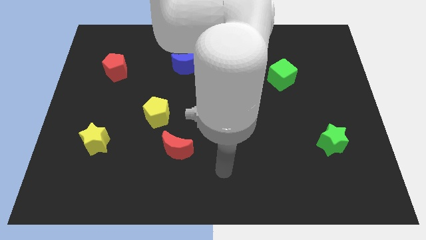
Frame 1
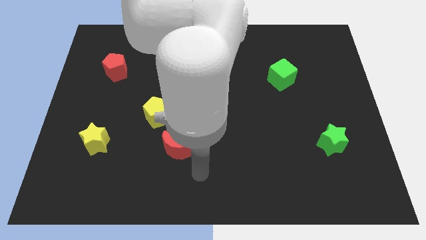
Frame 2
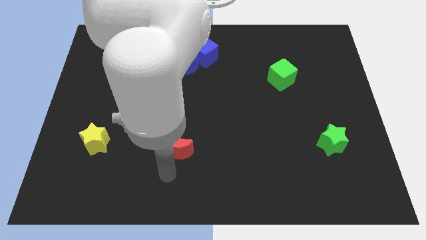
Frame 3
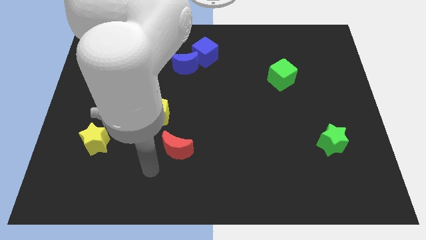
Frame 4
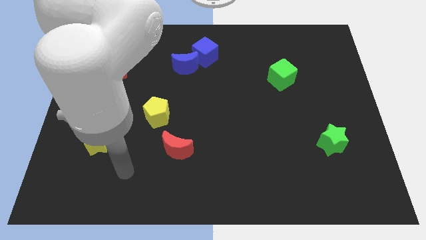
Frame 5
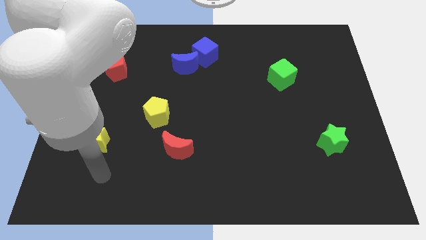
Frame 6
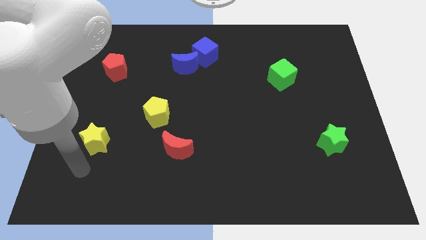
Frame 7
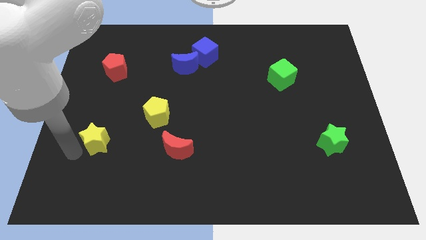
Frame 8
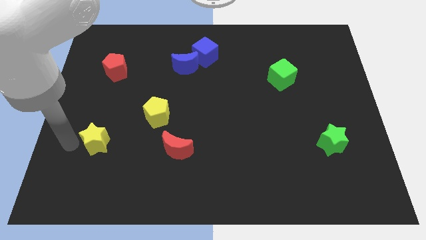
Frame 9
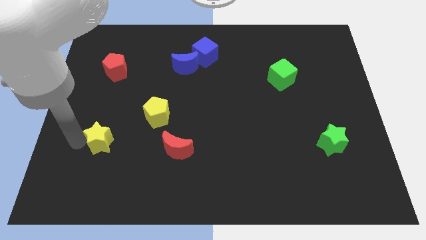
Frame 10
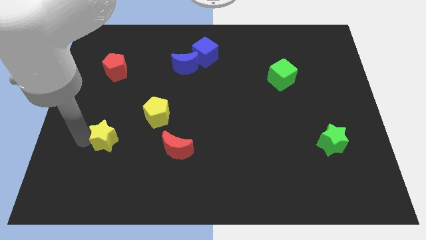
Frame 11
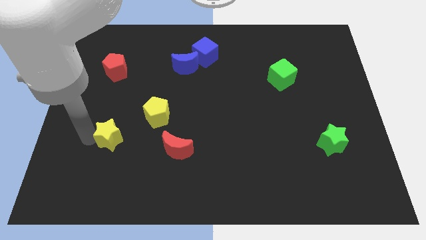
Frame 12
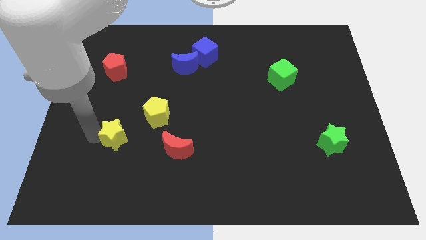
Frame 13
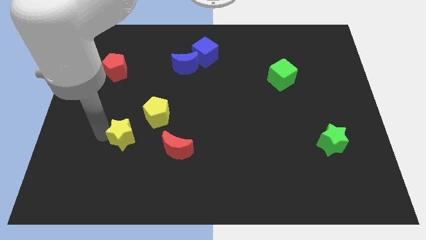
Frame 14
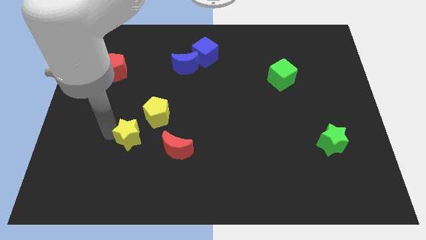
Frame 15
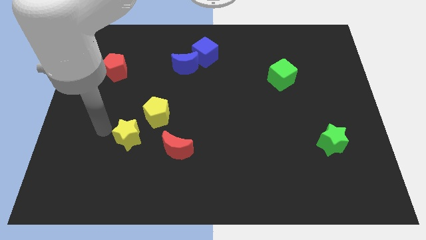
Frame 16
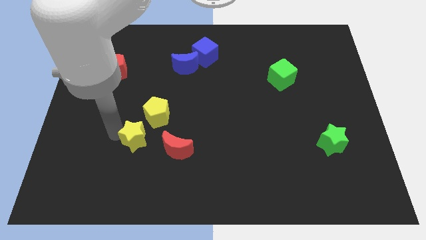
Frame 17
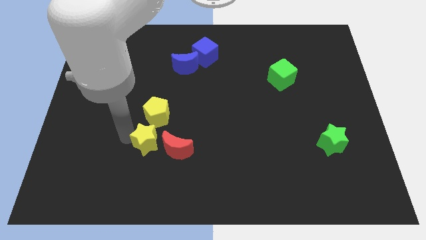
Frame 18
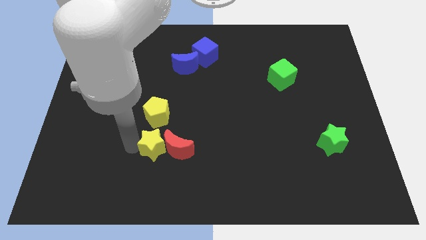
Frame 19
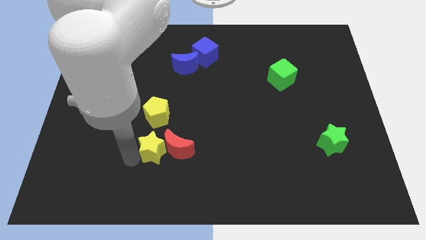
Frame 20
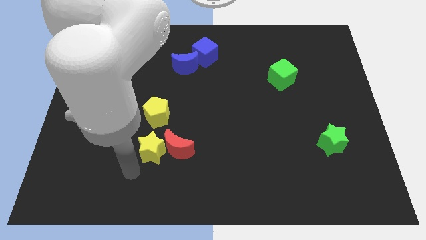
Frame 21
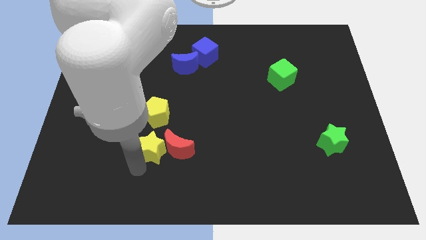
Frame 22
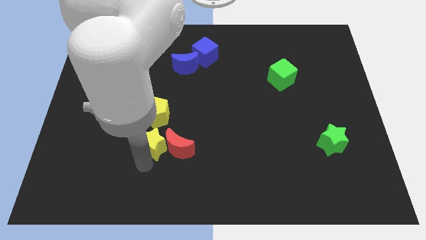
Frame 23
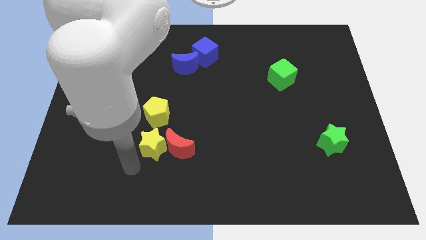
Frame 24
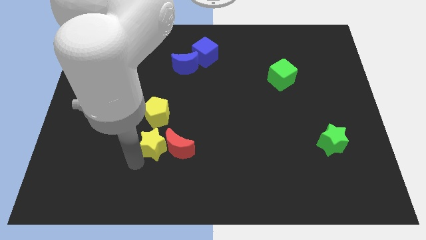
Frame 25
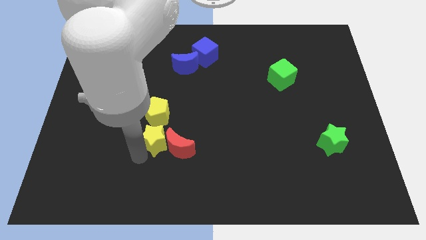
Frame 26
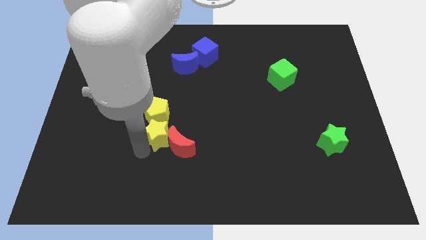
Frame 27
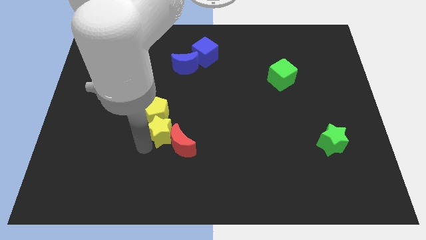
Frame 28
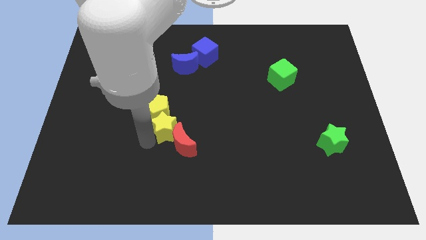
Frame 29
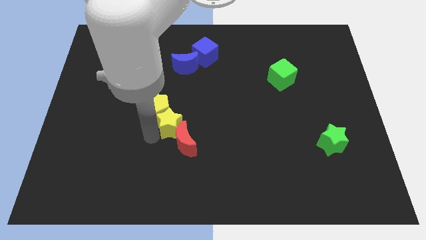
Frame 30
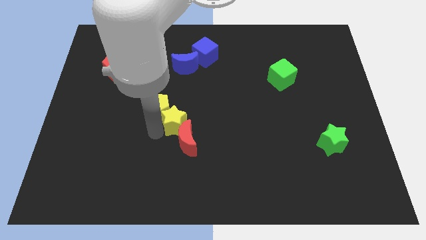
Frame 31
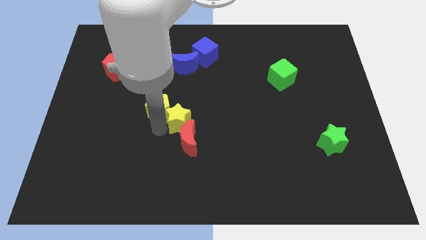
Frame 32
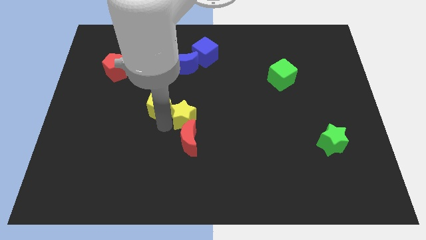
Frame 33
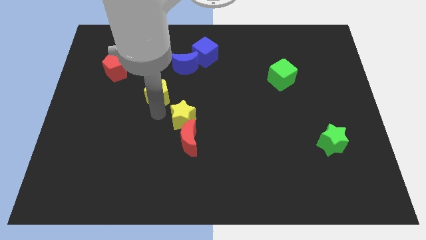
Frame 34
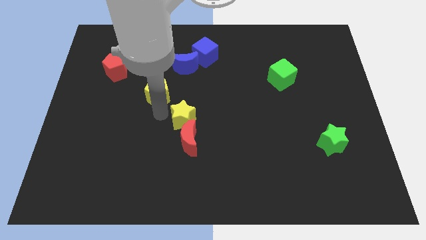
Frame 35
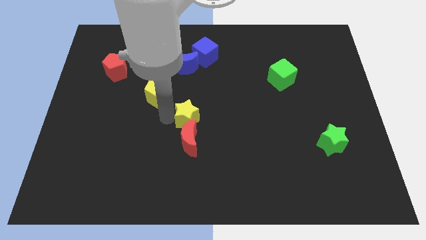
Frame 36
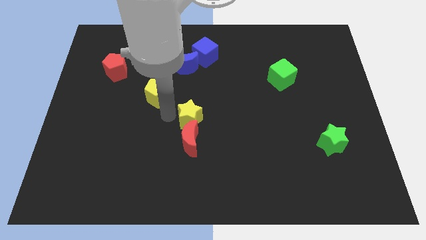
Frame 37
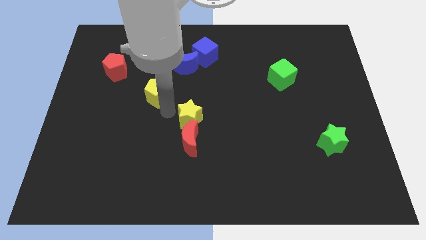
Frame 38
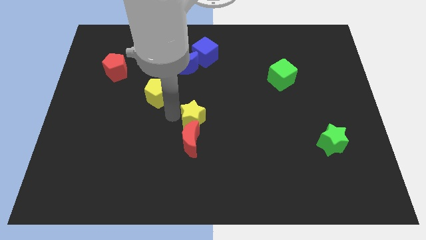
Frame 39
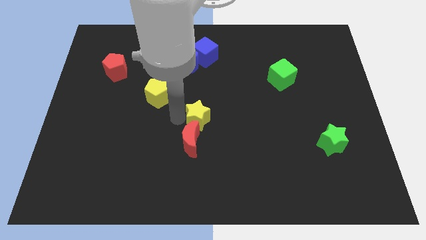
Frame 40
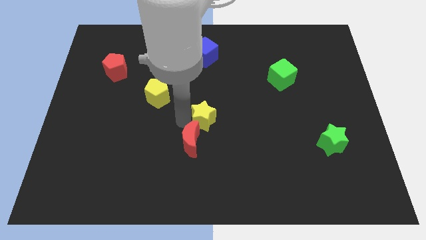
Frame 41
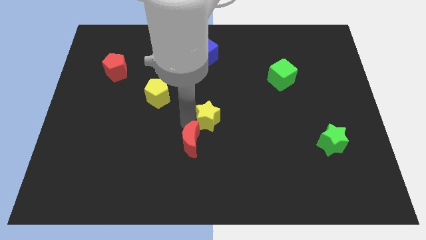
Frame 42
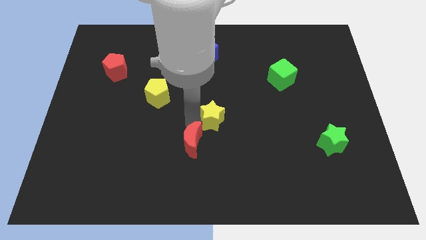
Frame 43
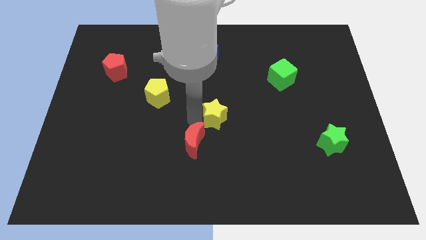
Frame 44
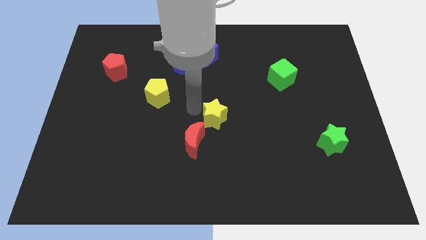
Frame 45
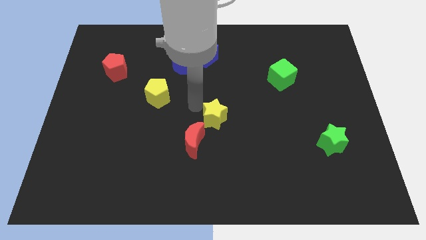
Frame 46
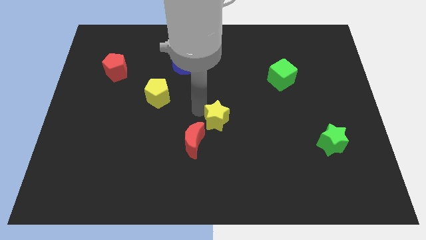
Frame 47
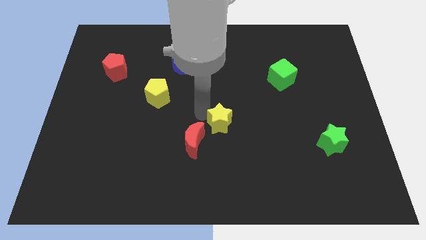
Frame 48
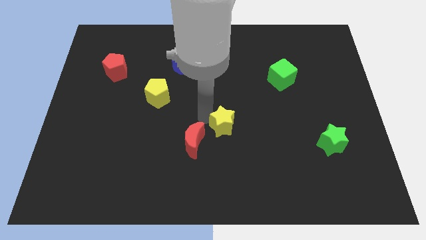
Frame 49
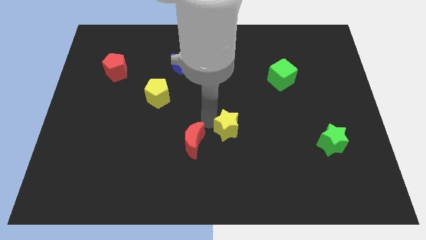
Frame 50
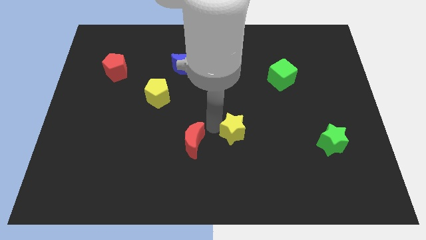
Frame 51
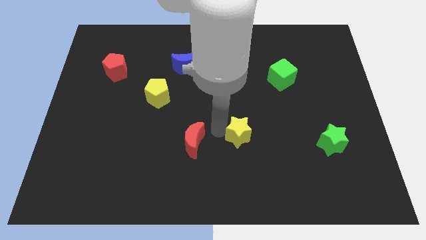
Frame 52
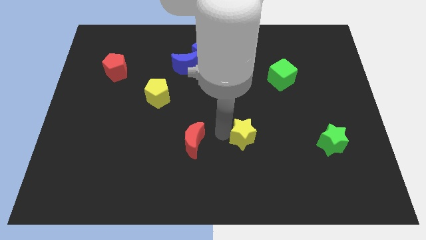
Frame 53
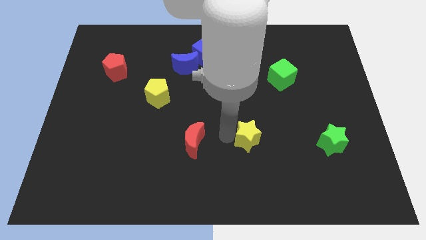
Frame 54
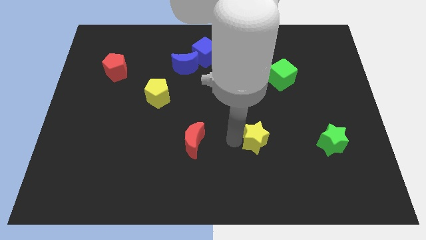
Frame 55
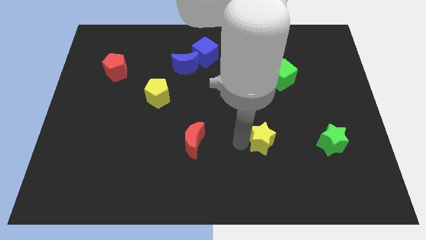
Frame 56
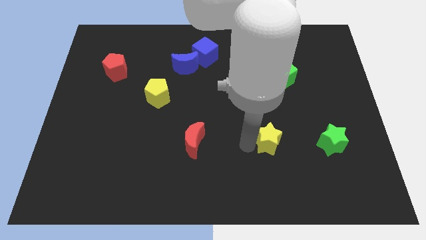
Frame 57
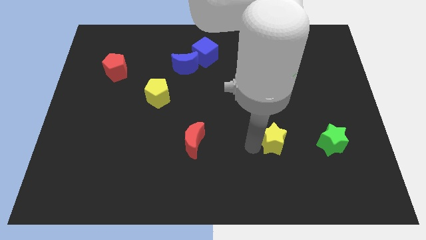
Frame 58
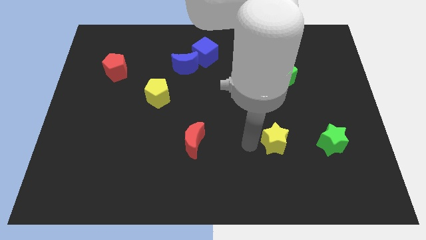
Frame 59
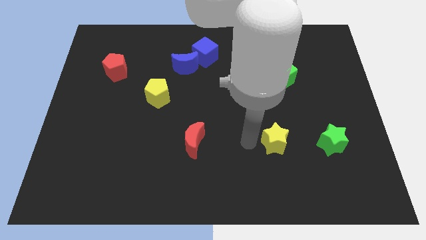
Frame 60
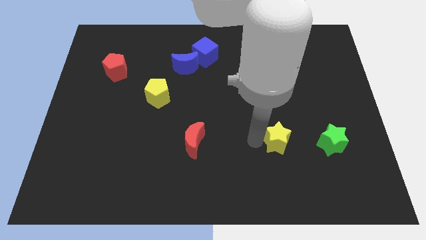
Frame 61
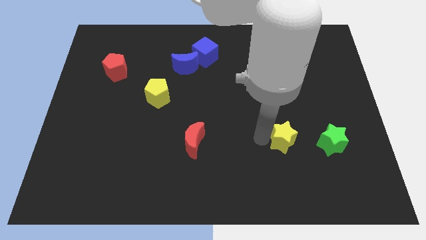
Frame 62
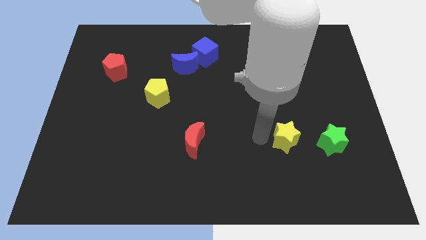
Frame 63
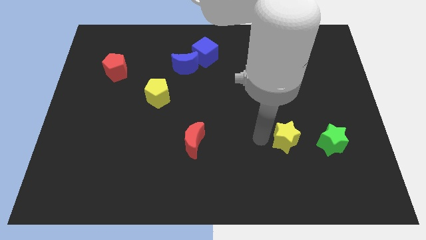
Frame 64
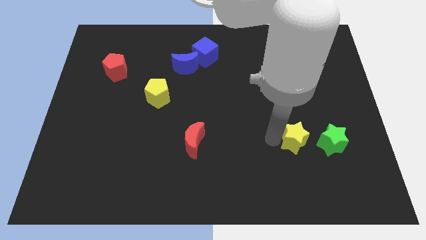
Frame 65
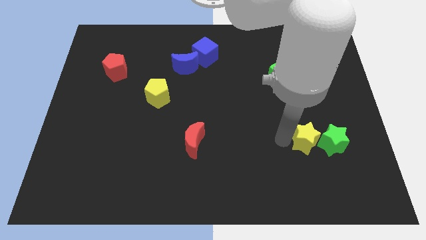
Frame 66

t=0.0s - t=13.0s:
put the yellow star next to the green star

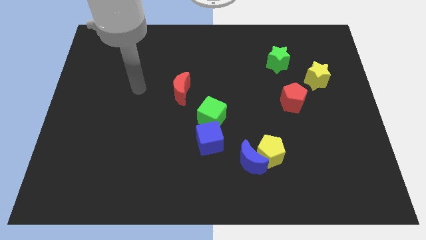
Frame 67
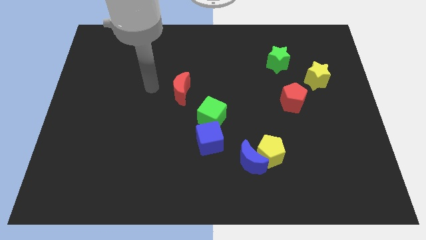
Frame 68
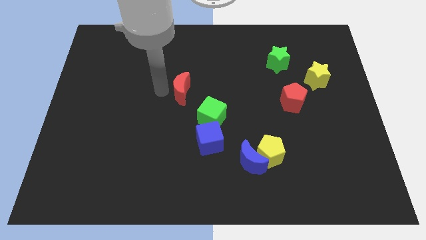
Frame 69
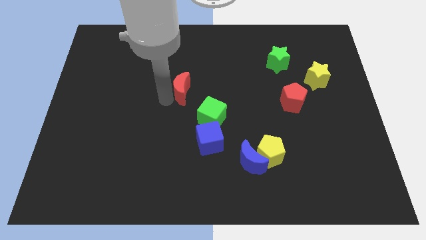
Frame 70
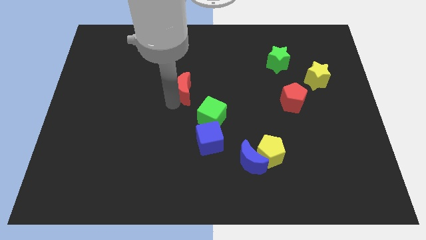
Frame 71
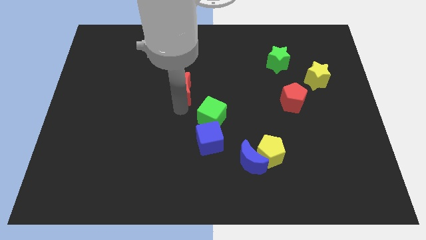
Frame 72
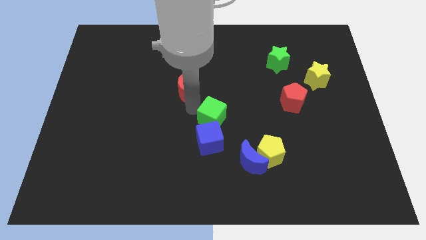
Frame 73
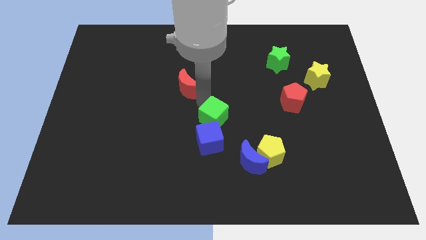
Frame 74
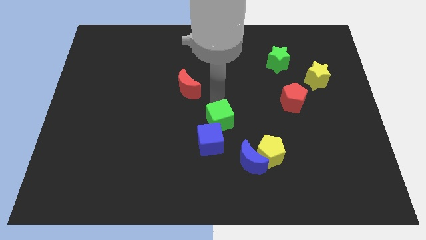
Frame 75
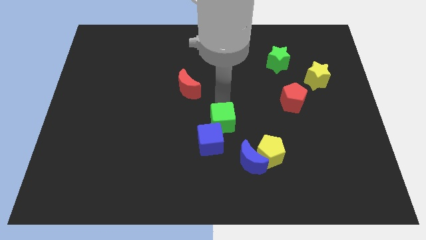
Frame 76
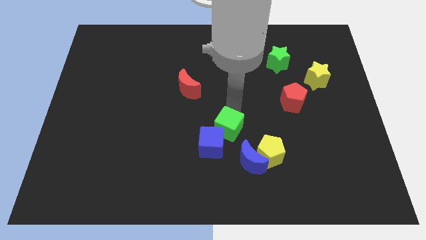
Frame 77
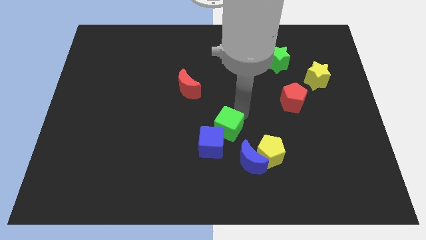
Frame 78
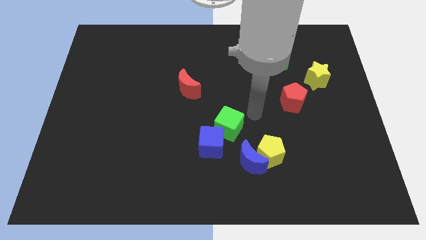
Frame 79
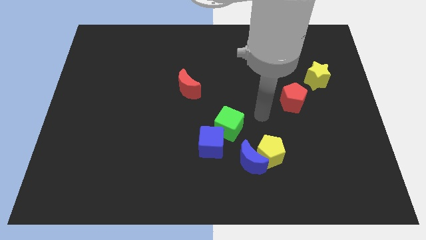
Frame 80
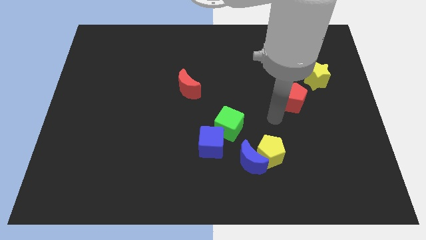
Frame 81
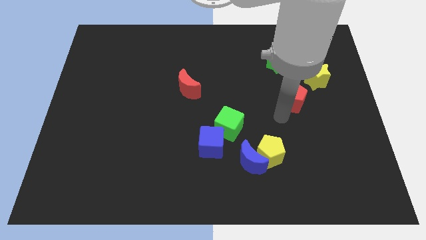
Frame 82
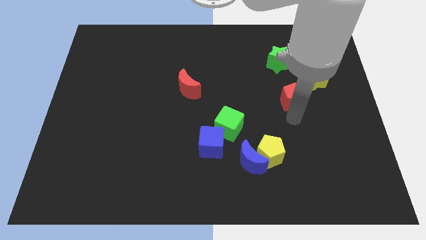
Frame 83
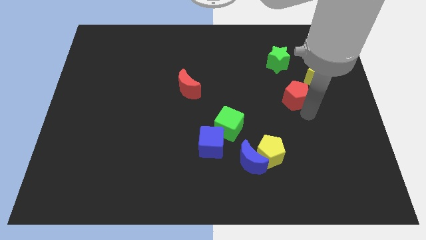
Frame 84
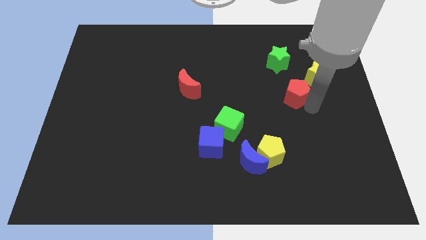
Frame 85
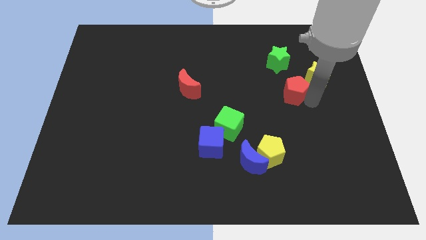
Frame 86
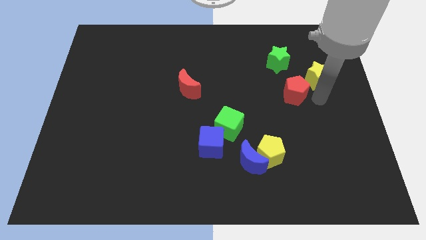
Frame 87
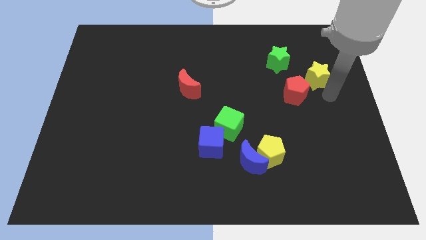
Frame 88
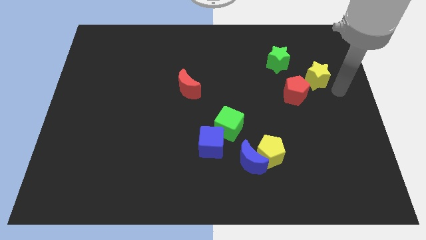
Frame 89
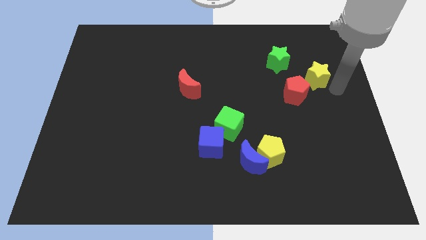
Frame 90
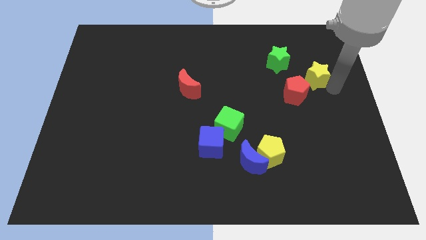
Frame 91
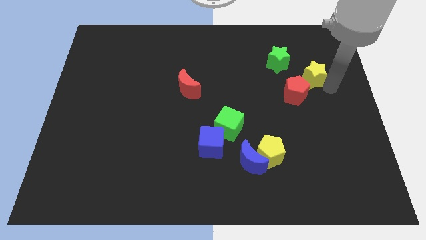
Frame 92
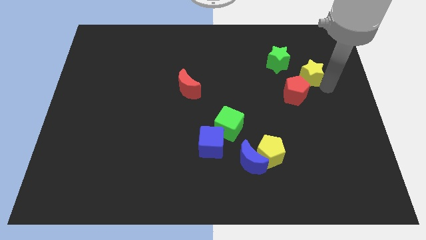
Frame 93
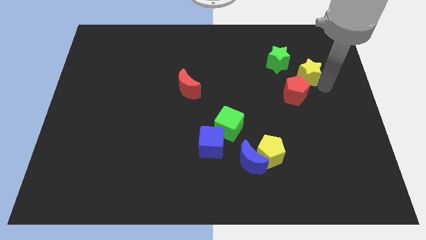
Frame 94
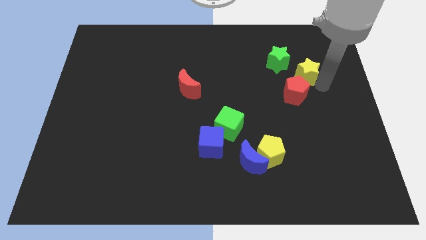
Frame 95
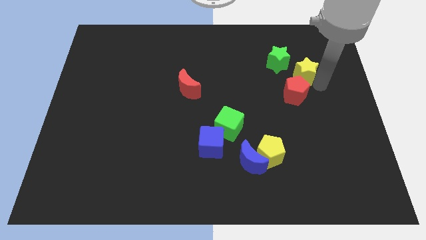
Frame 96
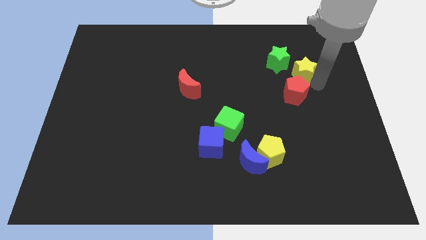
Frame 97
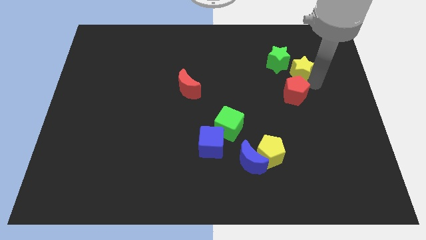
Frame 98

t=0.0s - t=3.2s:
put the yellow star towards the green star
